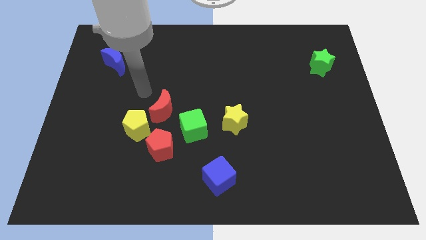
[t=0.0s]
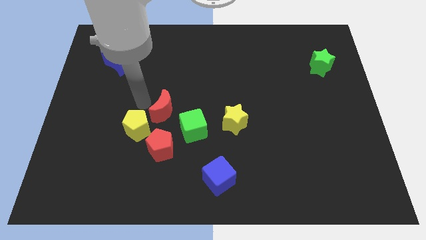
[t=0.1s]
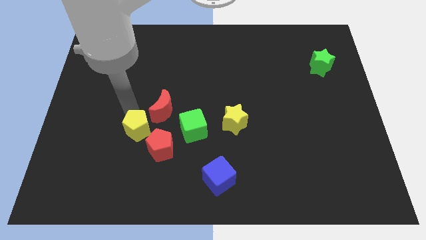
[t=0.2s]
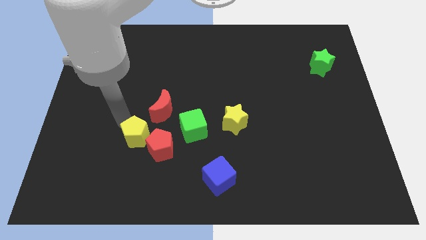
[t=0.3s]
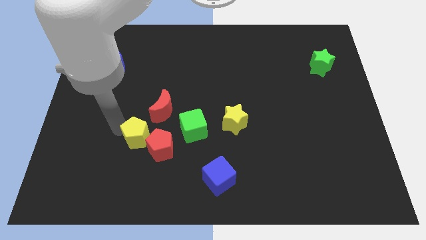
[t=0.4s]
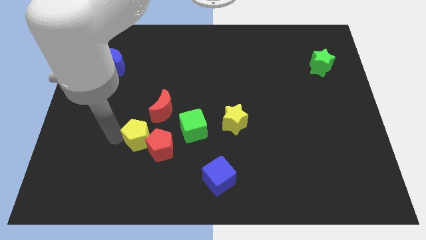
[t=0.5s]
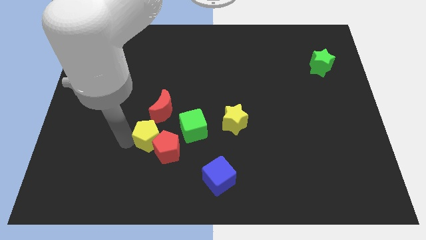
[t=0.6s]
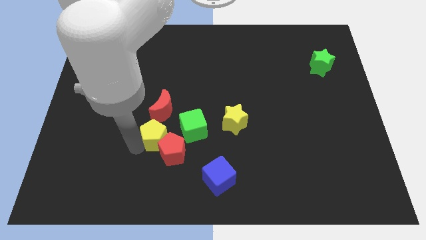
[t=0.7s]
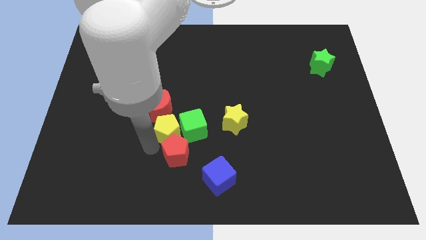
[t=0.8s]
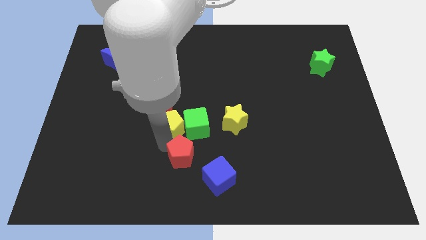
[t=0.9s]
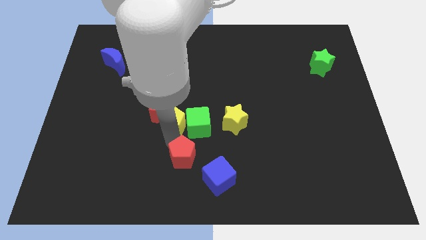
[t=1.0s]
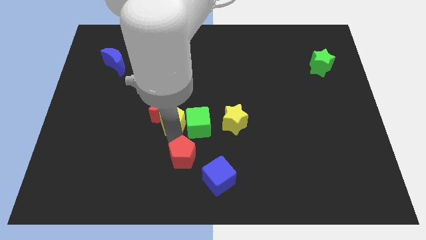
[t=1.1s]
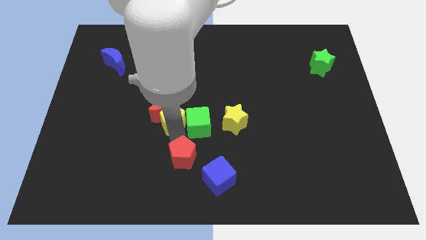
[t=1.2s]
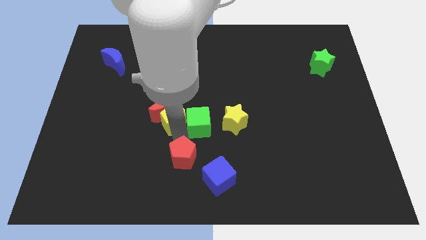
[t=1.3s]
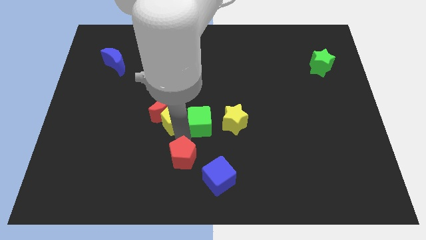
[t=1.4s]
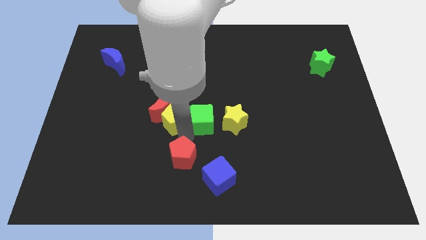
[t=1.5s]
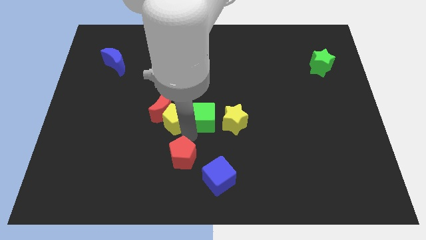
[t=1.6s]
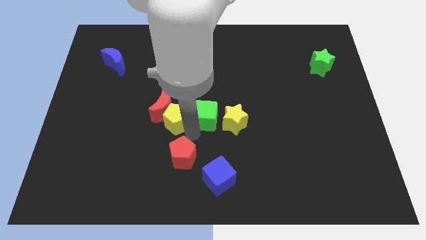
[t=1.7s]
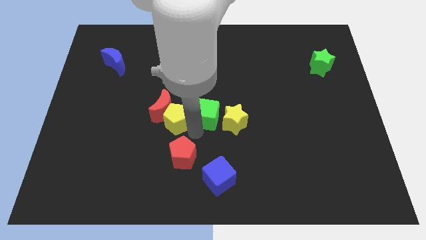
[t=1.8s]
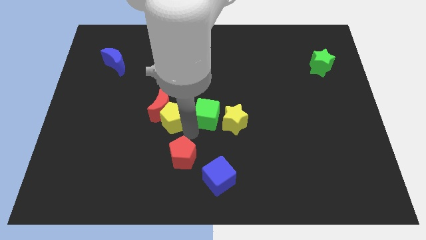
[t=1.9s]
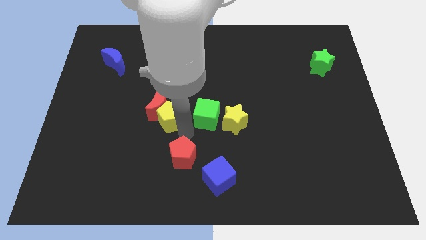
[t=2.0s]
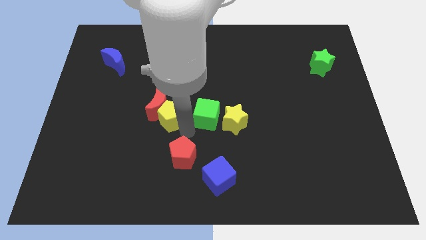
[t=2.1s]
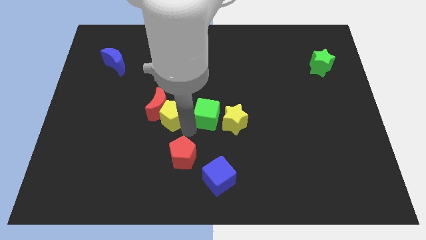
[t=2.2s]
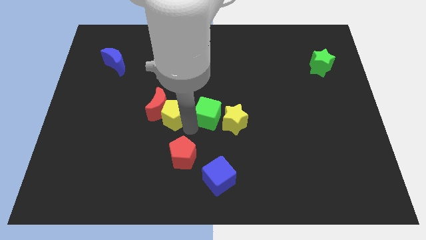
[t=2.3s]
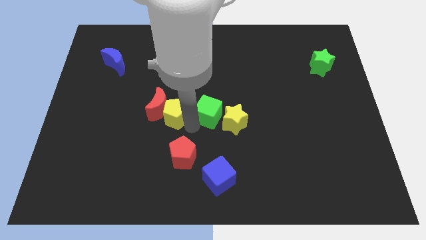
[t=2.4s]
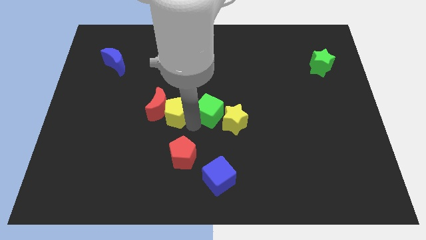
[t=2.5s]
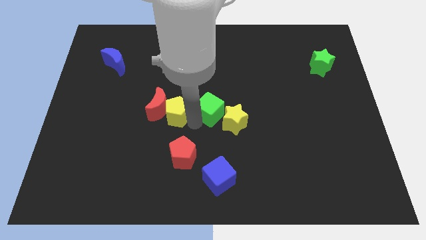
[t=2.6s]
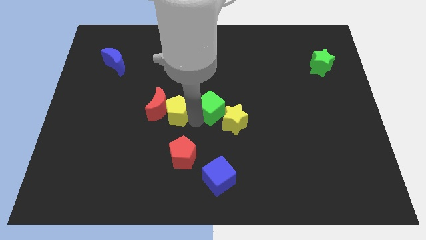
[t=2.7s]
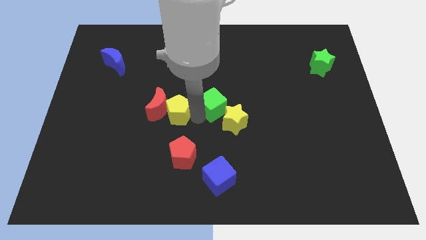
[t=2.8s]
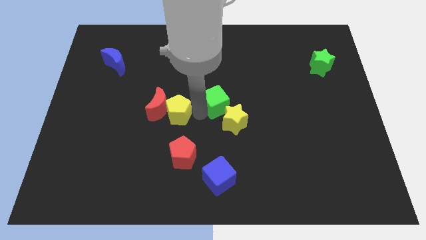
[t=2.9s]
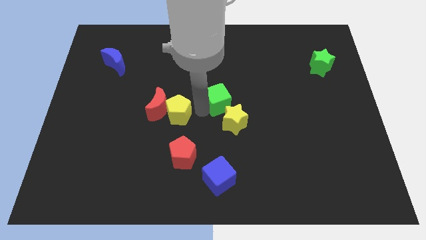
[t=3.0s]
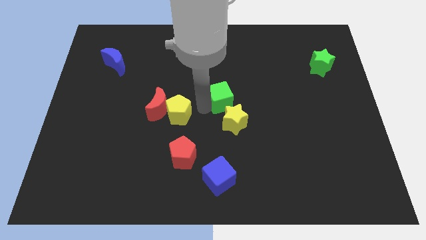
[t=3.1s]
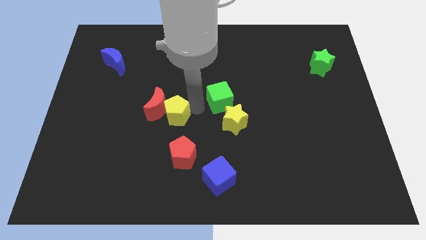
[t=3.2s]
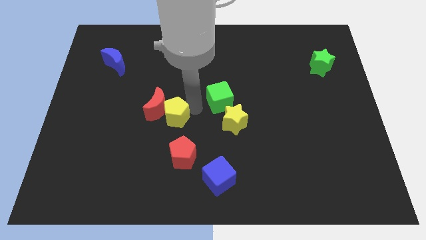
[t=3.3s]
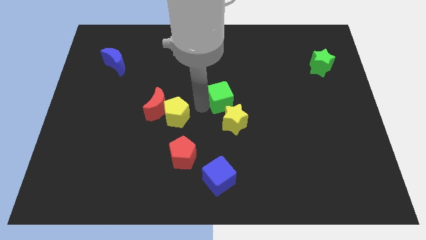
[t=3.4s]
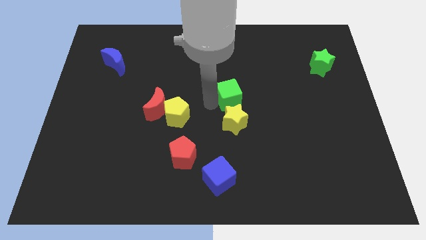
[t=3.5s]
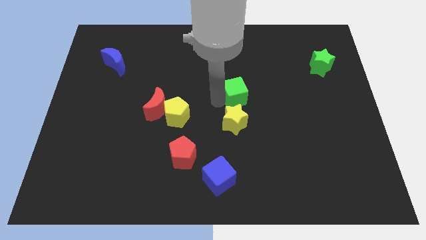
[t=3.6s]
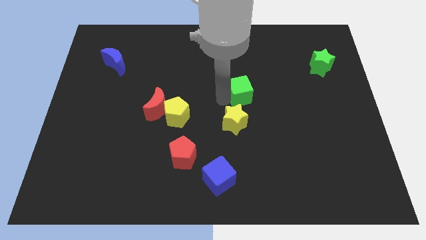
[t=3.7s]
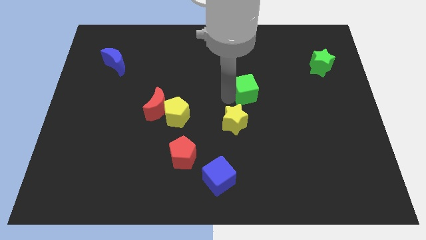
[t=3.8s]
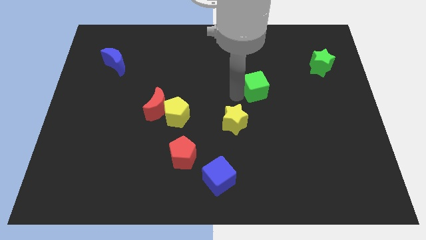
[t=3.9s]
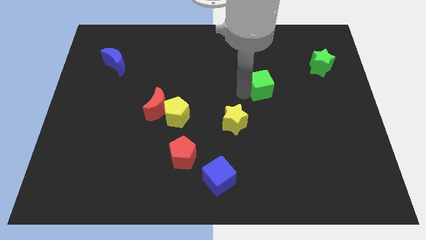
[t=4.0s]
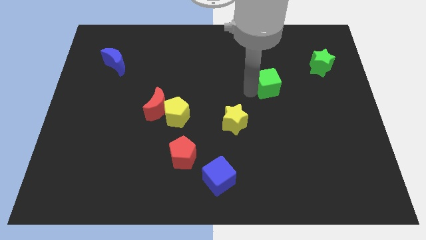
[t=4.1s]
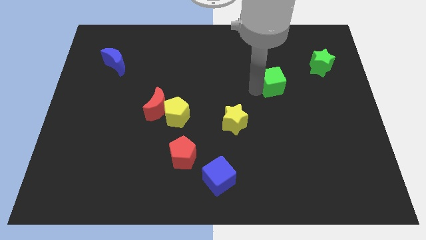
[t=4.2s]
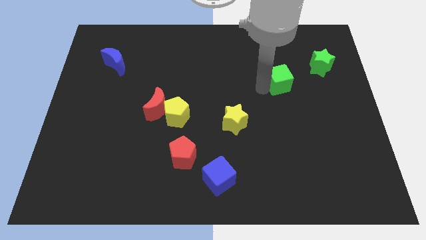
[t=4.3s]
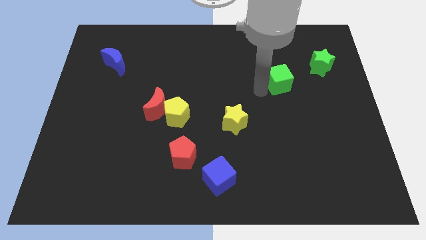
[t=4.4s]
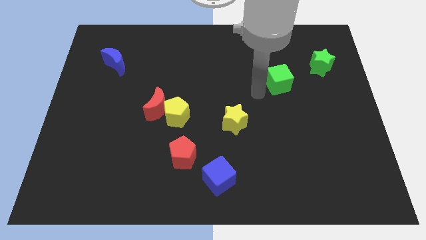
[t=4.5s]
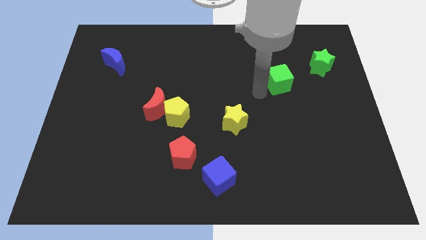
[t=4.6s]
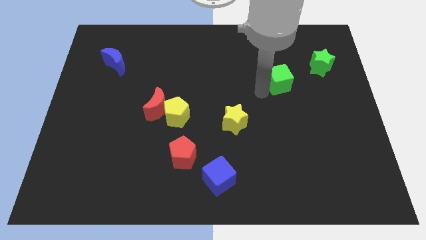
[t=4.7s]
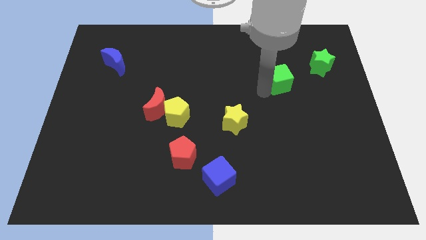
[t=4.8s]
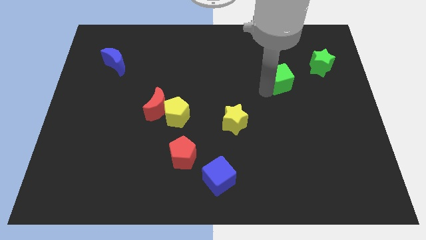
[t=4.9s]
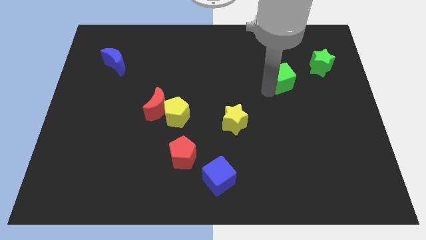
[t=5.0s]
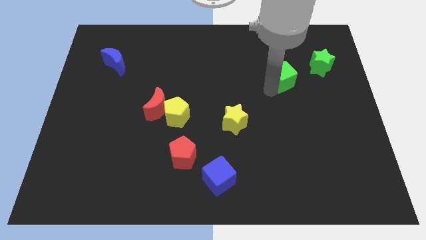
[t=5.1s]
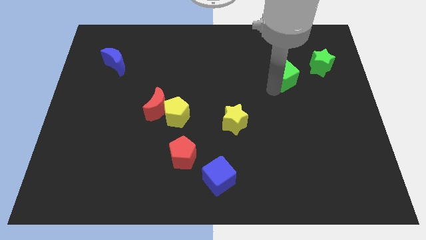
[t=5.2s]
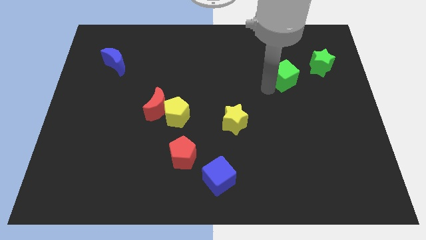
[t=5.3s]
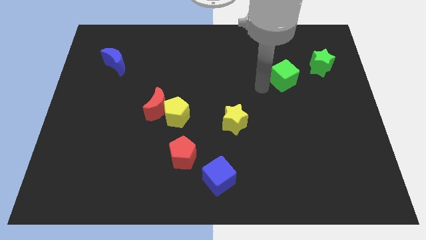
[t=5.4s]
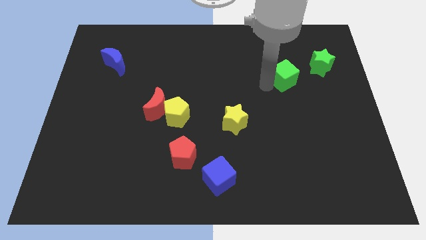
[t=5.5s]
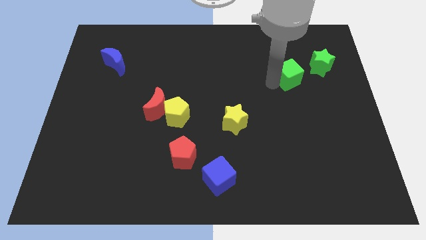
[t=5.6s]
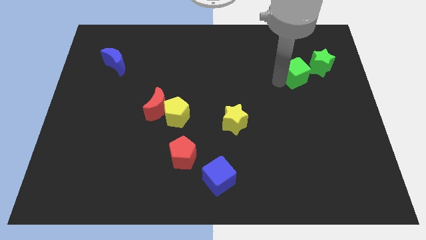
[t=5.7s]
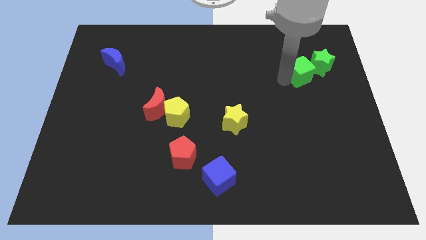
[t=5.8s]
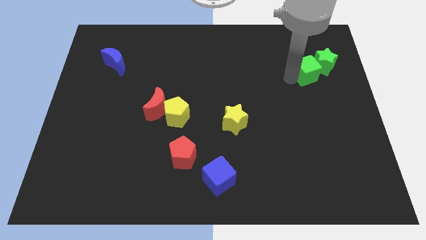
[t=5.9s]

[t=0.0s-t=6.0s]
move the green cube next to the green star
